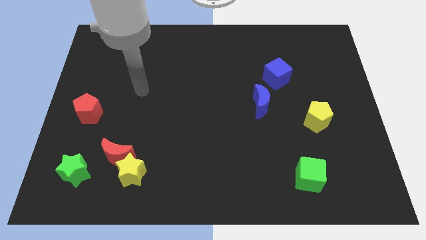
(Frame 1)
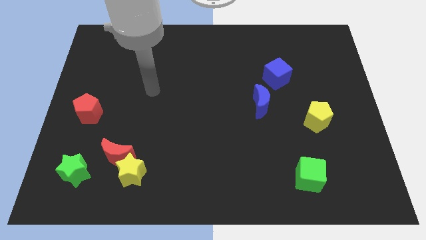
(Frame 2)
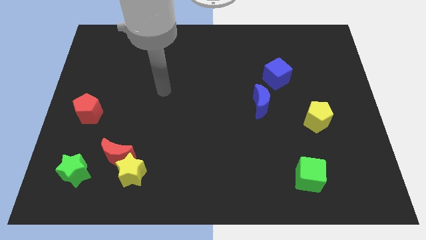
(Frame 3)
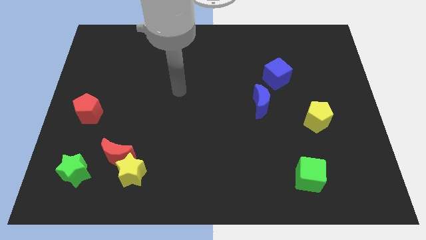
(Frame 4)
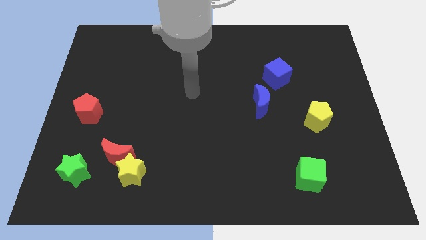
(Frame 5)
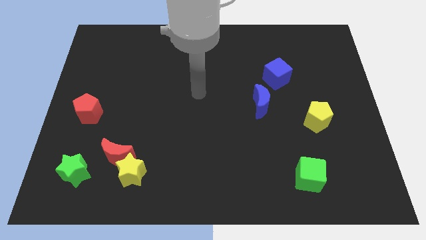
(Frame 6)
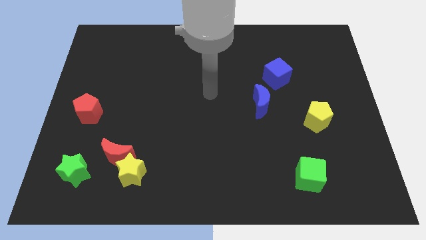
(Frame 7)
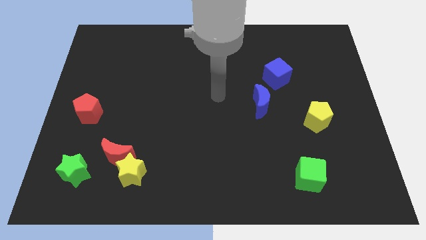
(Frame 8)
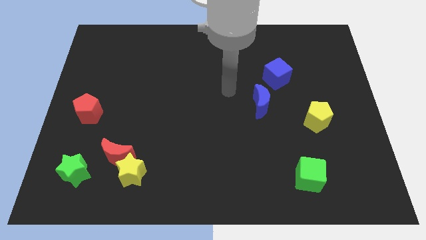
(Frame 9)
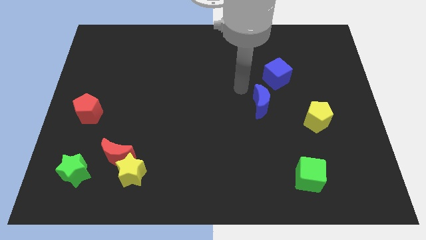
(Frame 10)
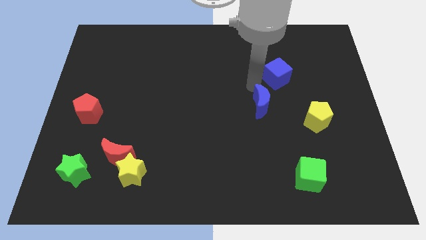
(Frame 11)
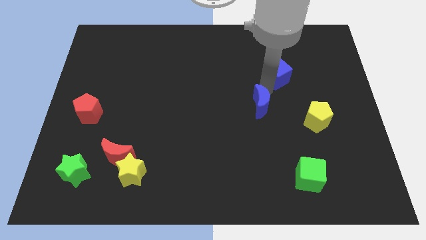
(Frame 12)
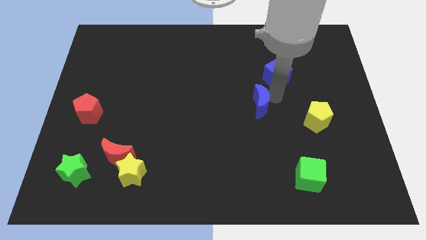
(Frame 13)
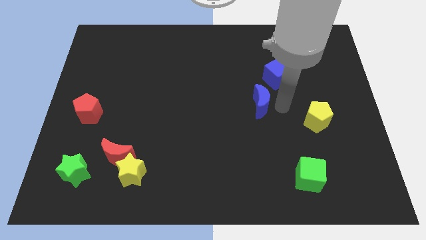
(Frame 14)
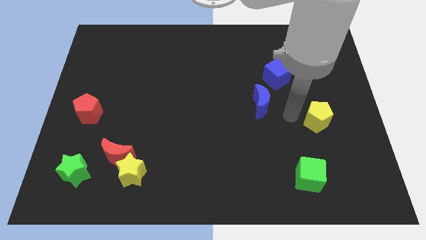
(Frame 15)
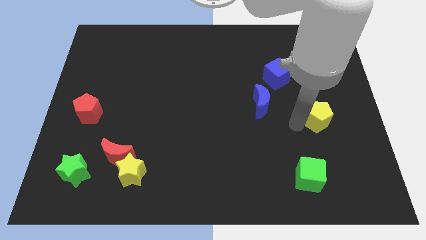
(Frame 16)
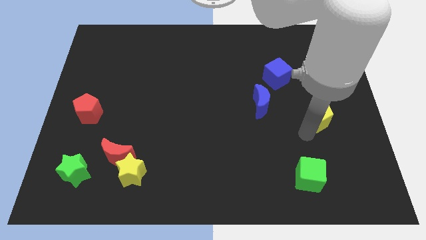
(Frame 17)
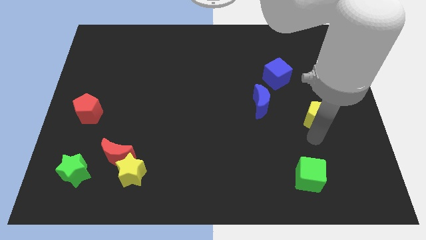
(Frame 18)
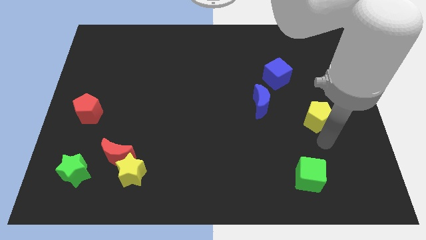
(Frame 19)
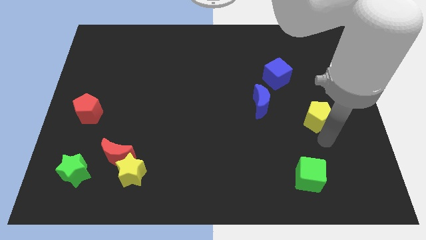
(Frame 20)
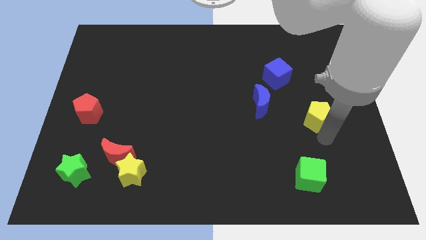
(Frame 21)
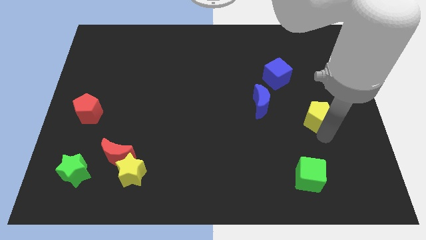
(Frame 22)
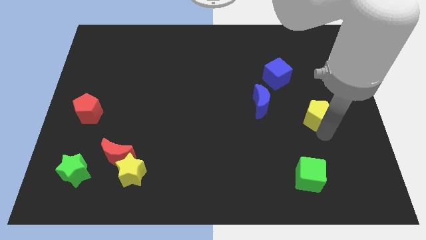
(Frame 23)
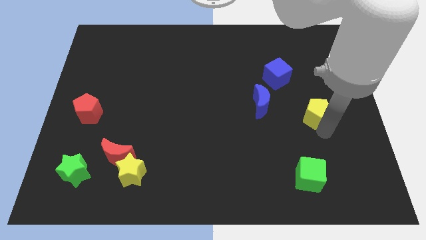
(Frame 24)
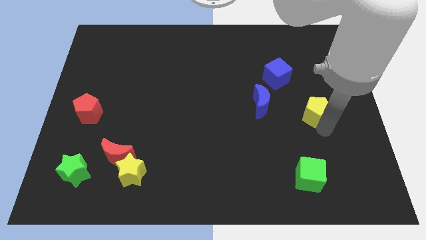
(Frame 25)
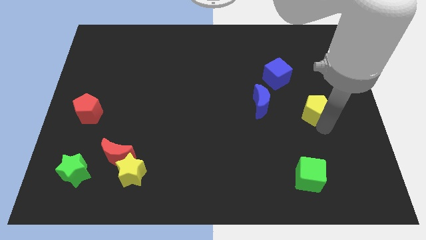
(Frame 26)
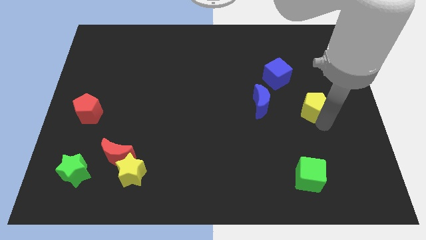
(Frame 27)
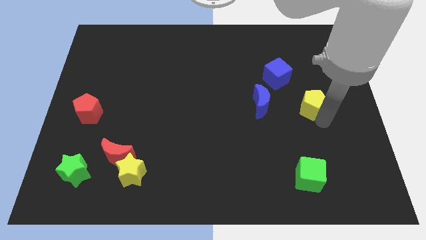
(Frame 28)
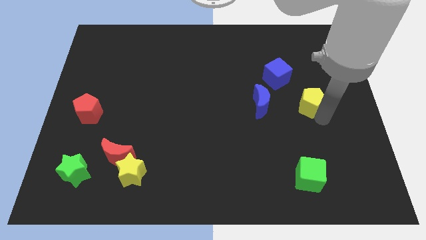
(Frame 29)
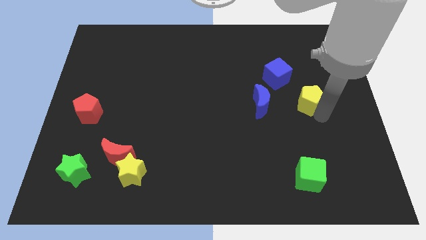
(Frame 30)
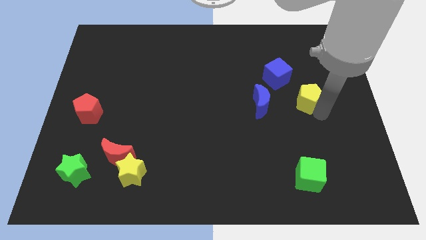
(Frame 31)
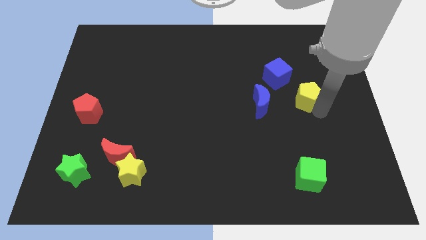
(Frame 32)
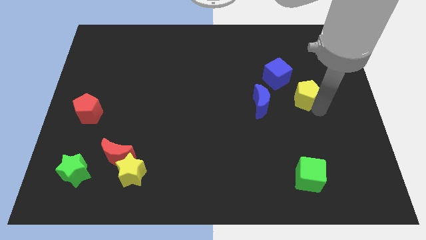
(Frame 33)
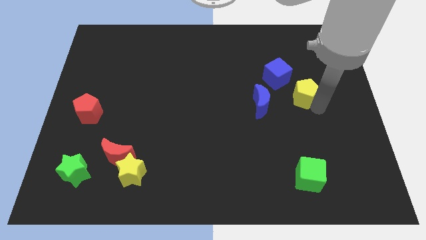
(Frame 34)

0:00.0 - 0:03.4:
push the yellow pentagon slightly upwards

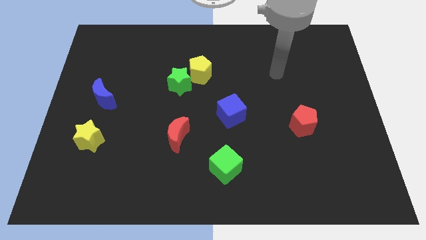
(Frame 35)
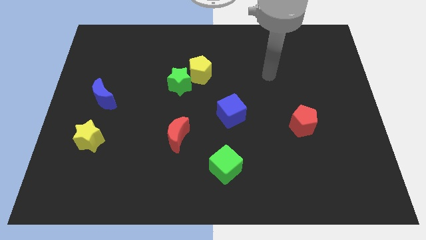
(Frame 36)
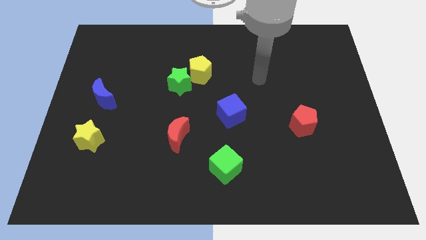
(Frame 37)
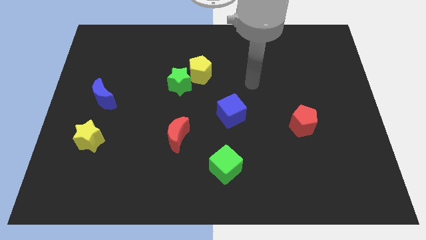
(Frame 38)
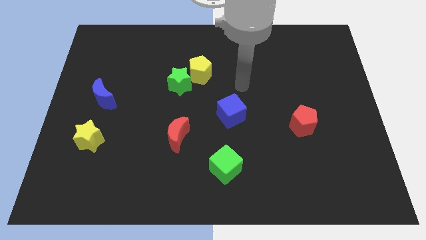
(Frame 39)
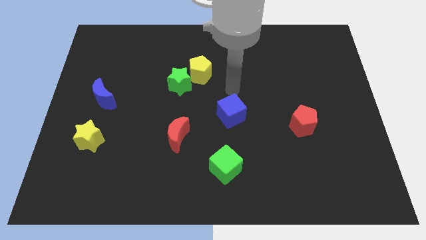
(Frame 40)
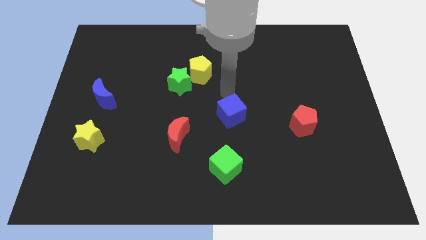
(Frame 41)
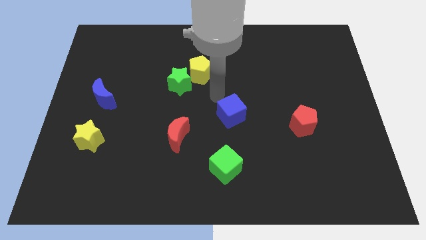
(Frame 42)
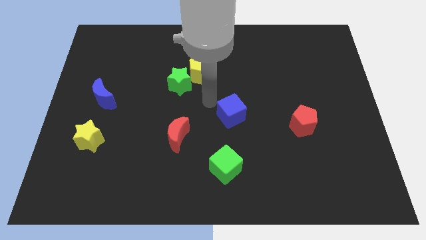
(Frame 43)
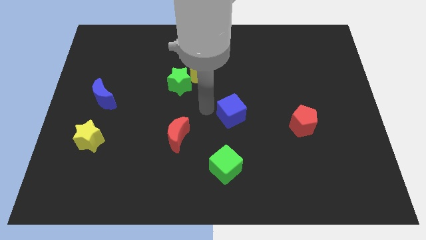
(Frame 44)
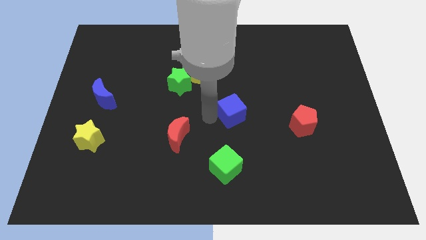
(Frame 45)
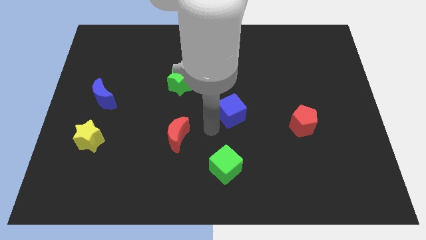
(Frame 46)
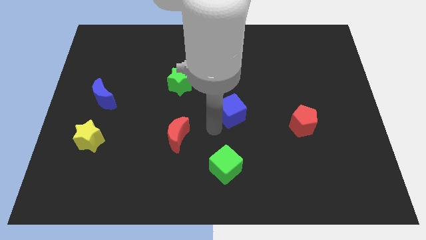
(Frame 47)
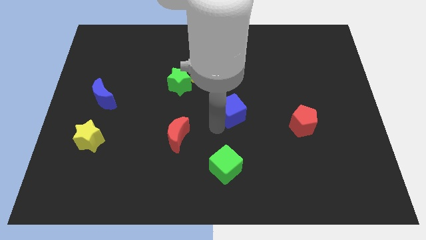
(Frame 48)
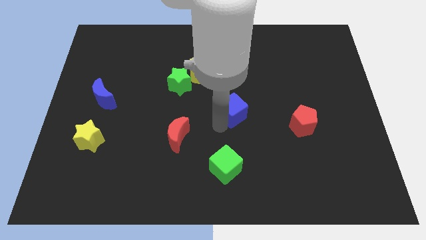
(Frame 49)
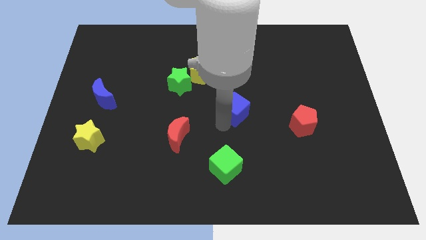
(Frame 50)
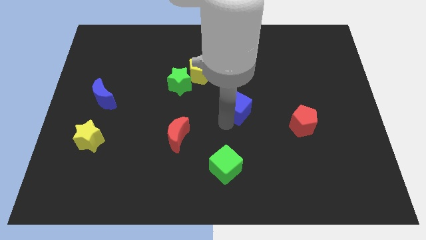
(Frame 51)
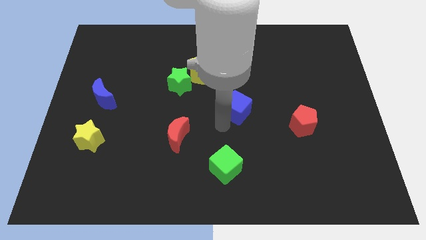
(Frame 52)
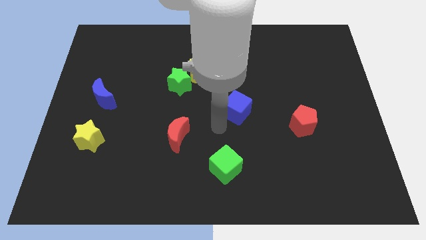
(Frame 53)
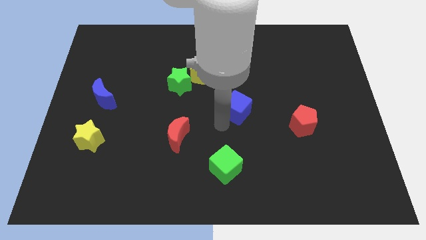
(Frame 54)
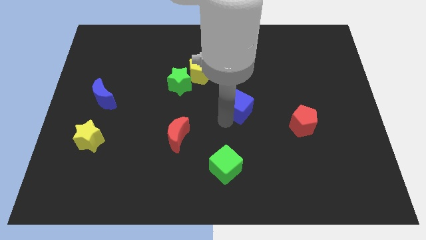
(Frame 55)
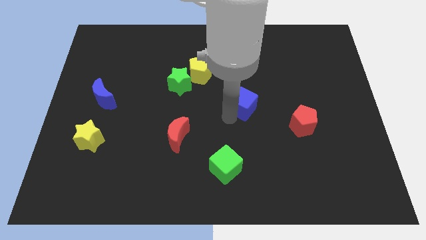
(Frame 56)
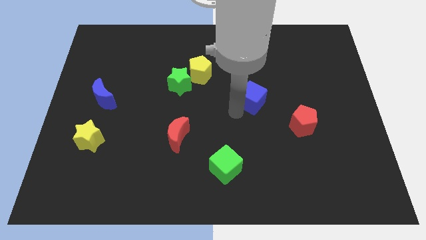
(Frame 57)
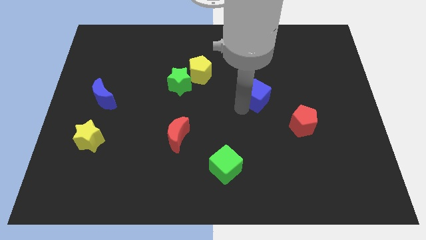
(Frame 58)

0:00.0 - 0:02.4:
push the blue cube upwards and right diagonally slightly

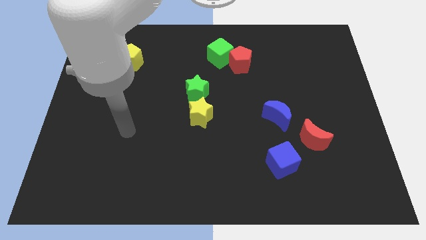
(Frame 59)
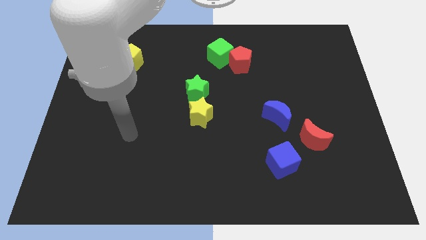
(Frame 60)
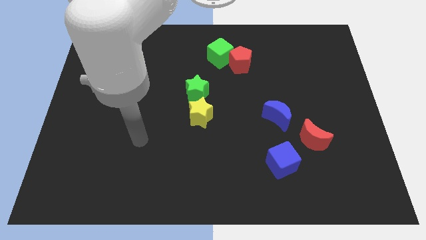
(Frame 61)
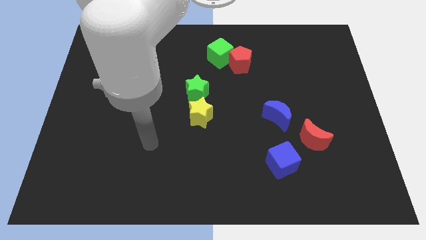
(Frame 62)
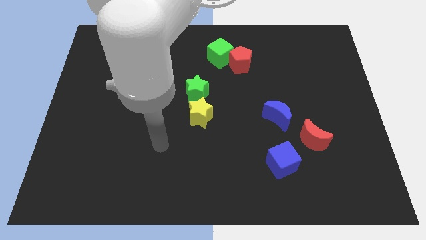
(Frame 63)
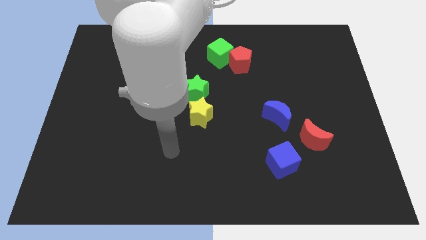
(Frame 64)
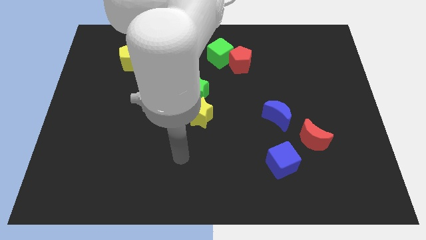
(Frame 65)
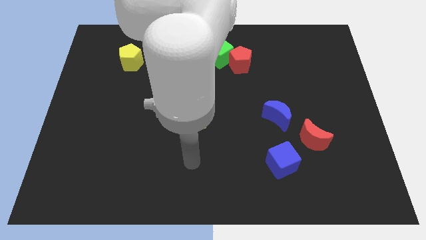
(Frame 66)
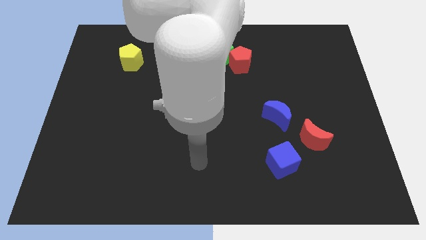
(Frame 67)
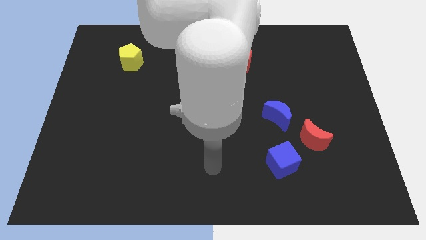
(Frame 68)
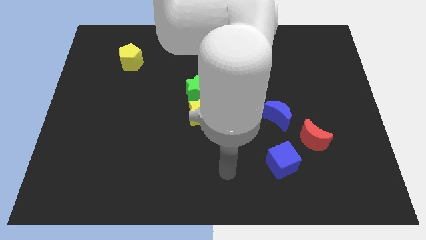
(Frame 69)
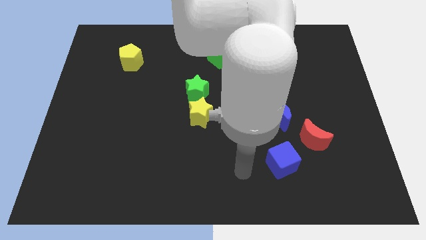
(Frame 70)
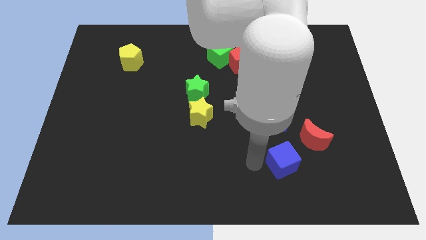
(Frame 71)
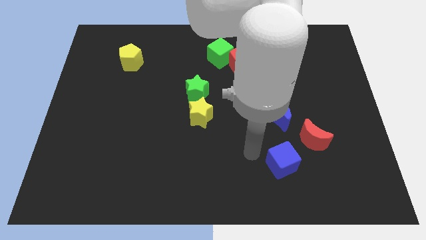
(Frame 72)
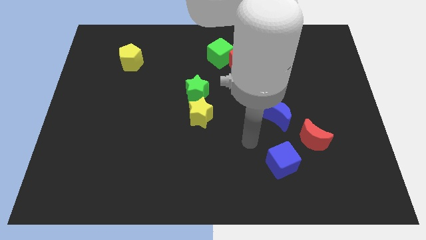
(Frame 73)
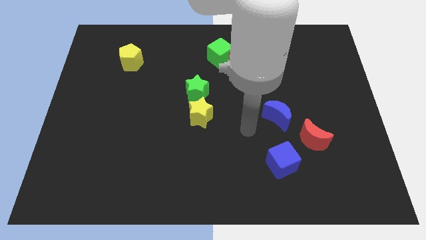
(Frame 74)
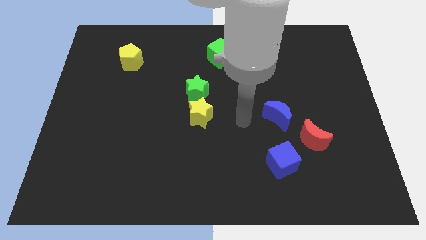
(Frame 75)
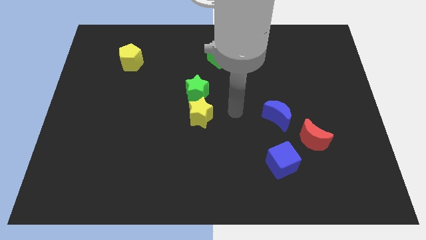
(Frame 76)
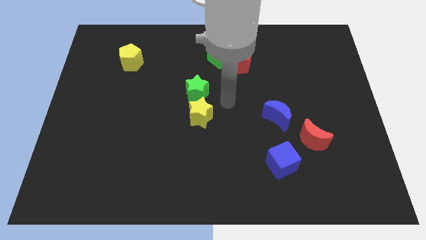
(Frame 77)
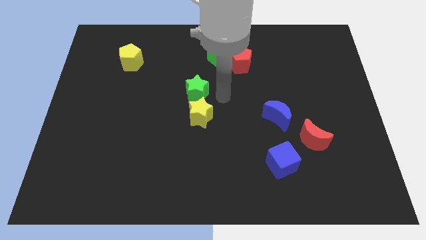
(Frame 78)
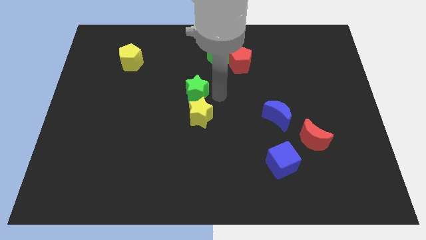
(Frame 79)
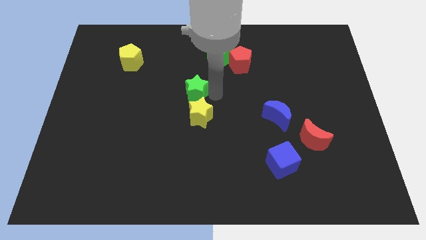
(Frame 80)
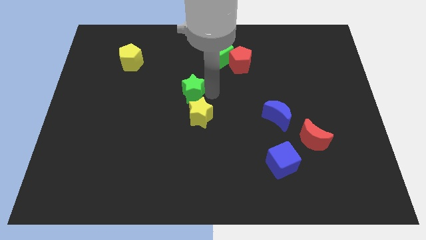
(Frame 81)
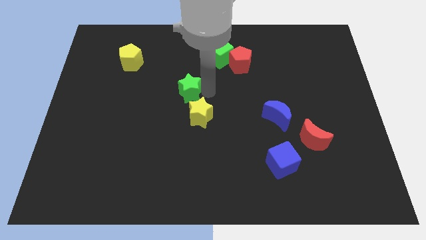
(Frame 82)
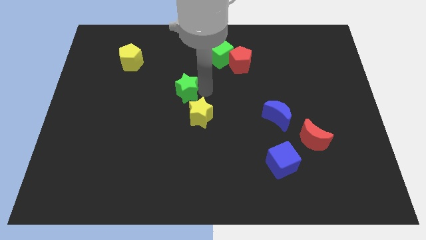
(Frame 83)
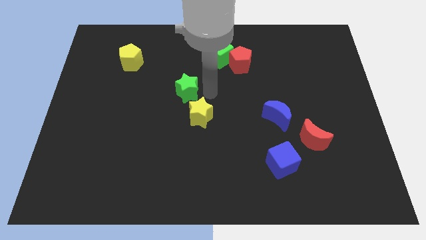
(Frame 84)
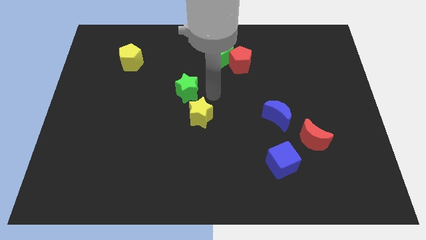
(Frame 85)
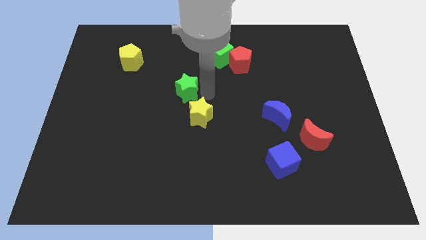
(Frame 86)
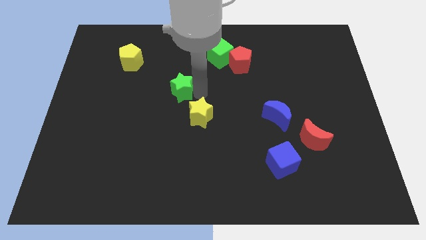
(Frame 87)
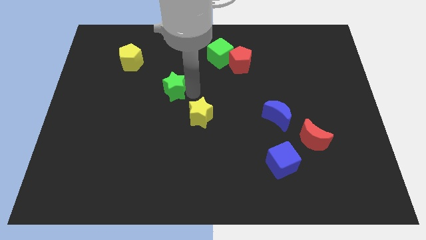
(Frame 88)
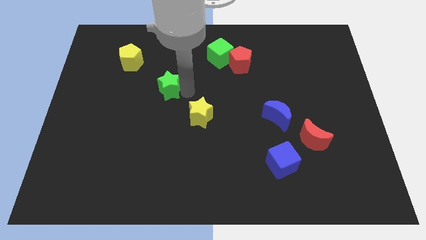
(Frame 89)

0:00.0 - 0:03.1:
push the green star slightly to the left
